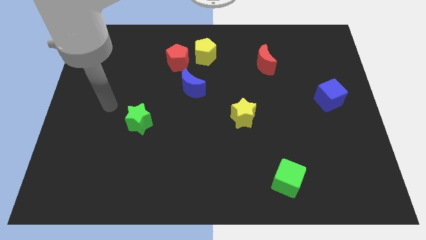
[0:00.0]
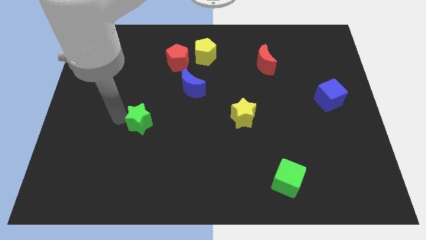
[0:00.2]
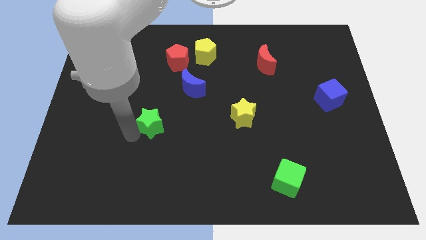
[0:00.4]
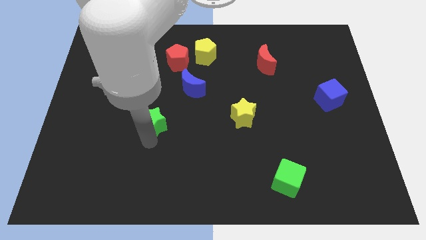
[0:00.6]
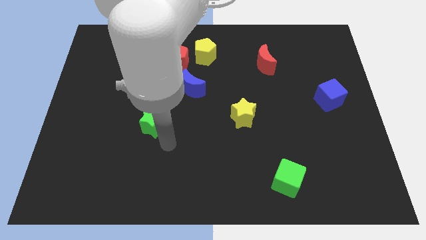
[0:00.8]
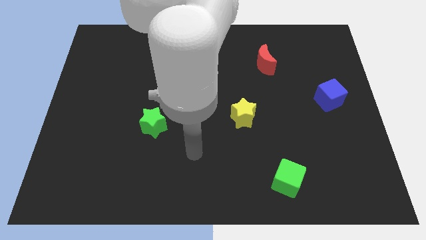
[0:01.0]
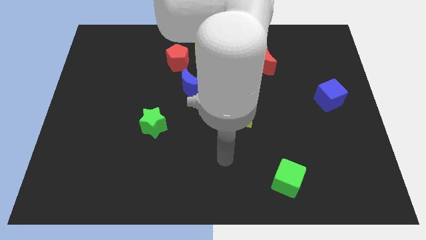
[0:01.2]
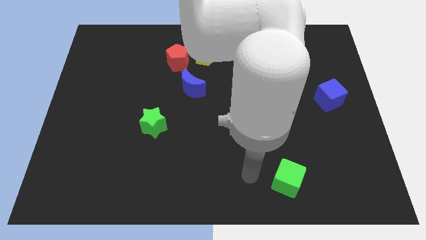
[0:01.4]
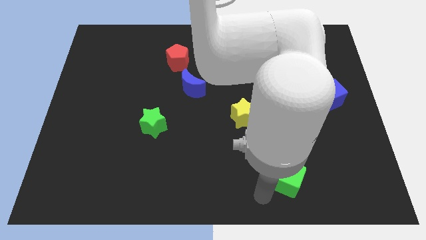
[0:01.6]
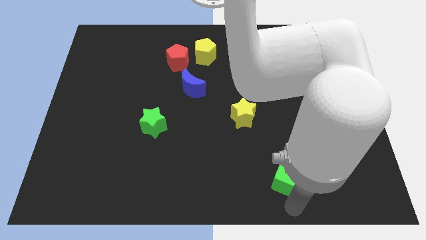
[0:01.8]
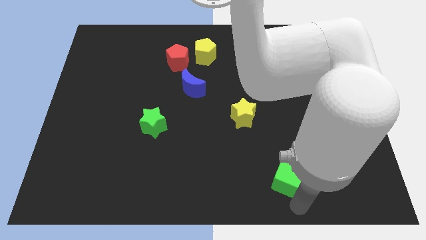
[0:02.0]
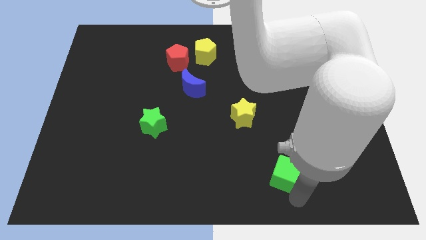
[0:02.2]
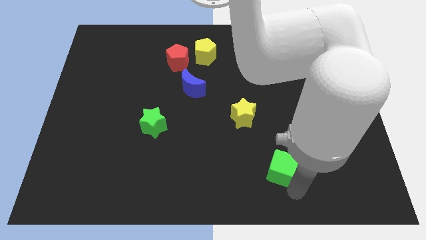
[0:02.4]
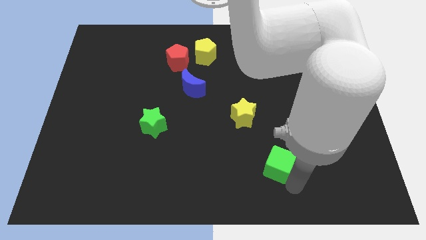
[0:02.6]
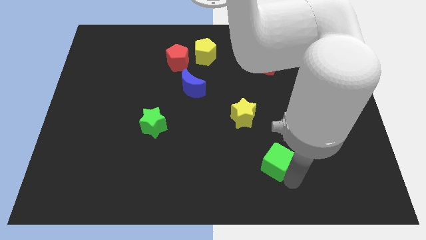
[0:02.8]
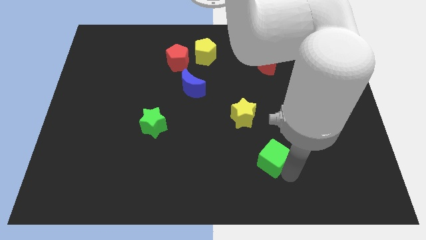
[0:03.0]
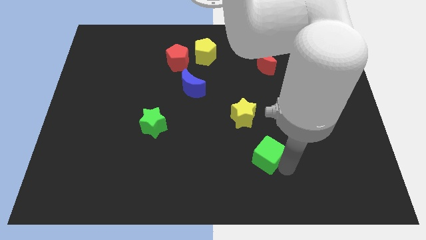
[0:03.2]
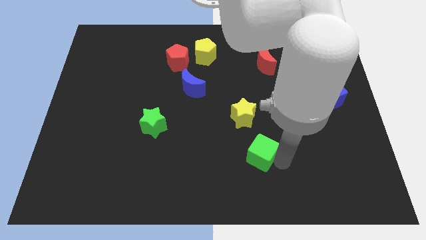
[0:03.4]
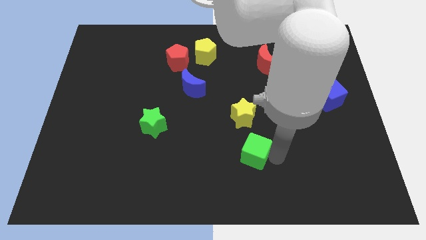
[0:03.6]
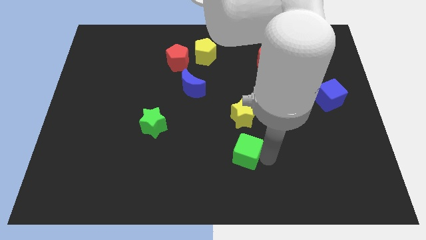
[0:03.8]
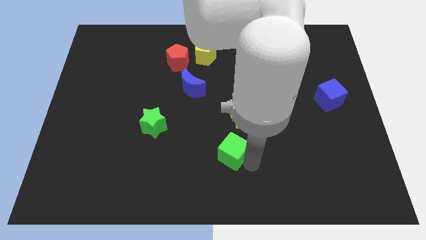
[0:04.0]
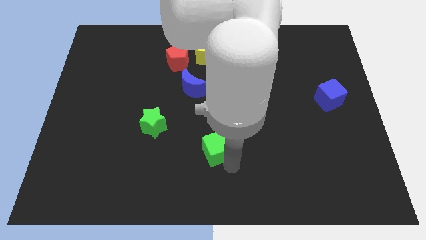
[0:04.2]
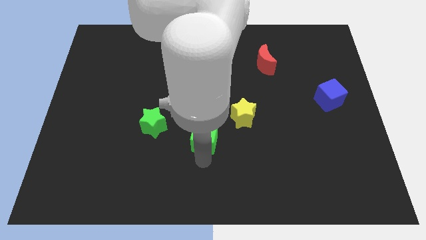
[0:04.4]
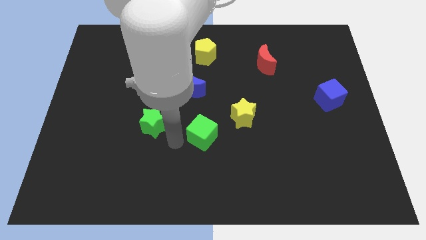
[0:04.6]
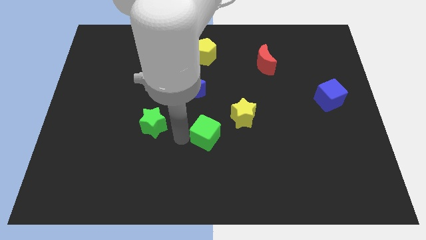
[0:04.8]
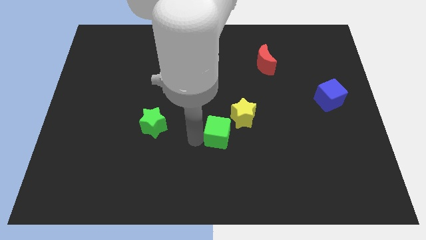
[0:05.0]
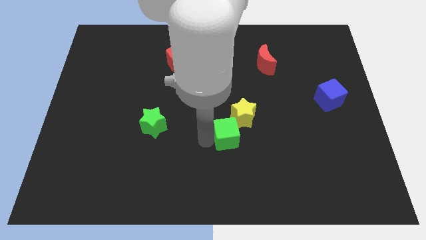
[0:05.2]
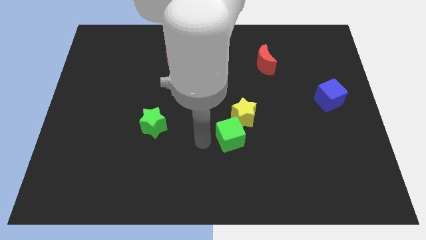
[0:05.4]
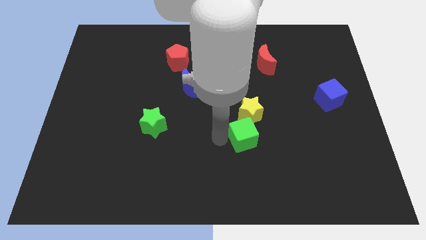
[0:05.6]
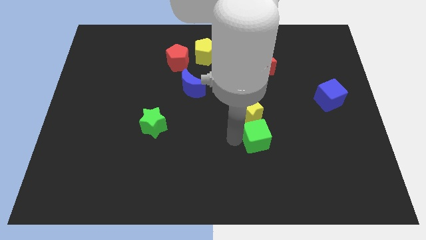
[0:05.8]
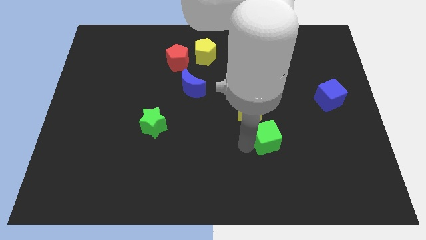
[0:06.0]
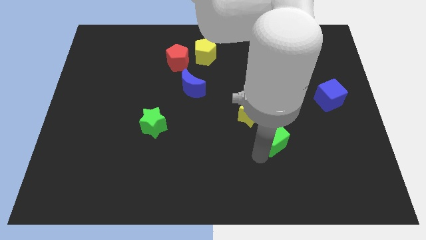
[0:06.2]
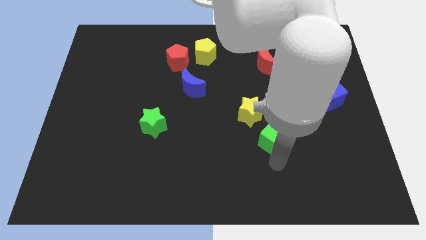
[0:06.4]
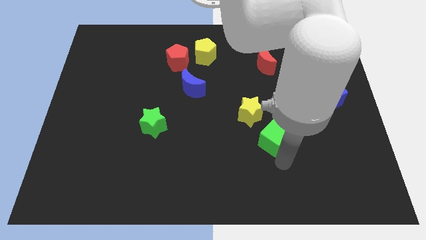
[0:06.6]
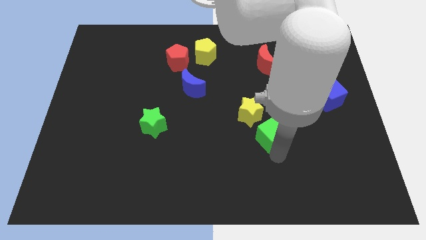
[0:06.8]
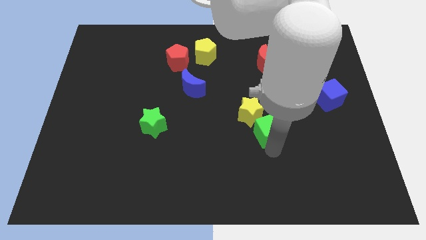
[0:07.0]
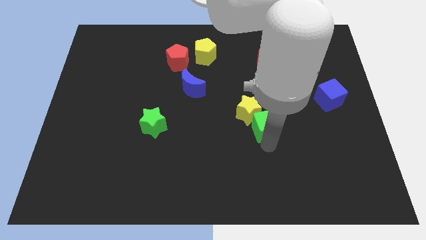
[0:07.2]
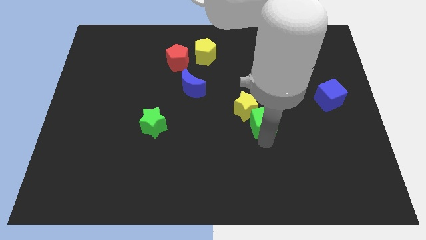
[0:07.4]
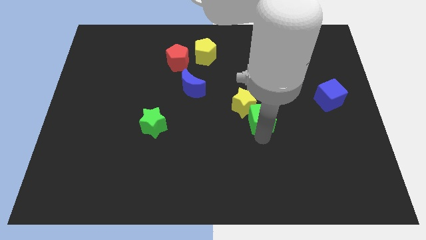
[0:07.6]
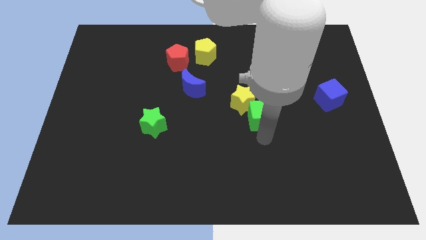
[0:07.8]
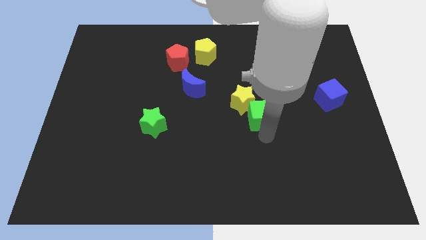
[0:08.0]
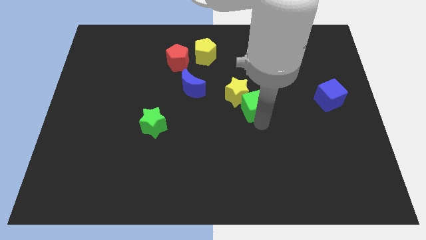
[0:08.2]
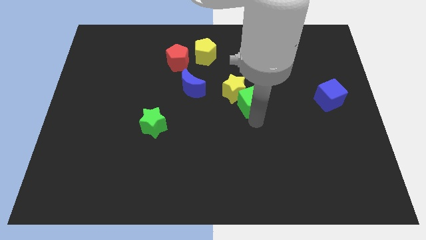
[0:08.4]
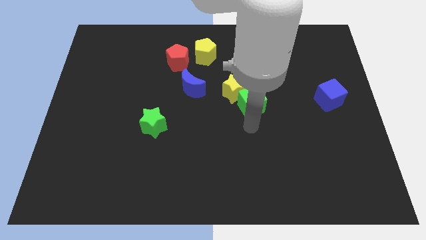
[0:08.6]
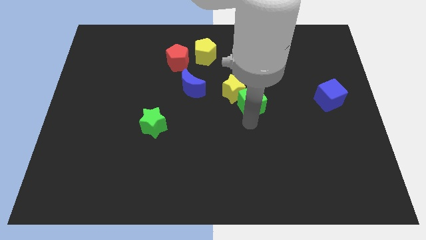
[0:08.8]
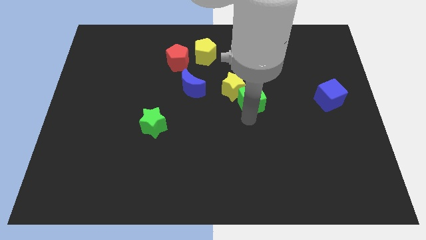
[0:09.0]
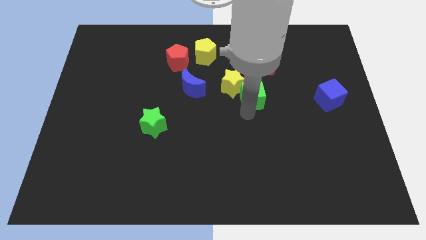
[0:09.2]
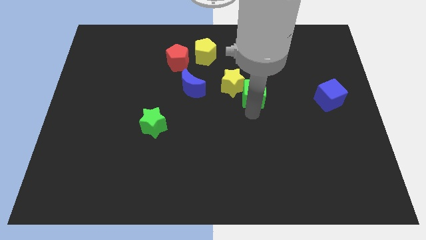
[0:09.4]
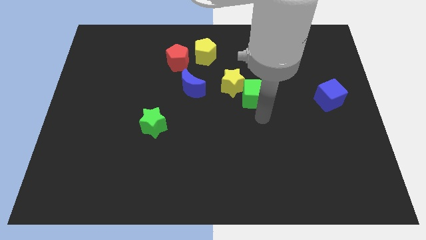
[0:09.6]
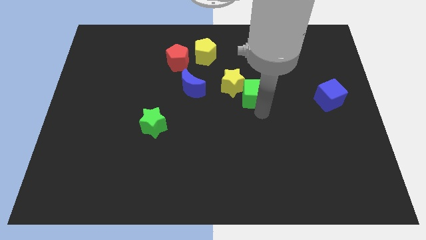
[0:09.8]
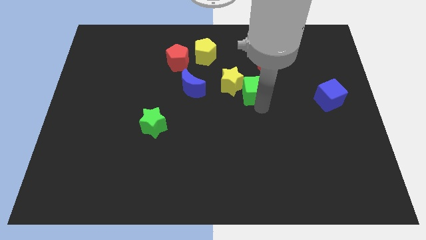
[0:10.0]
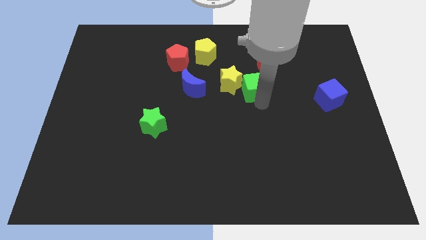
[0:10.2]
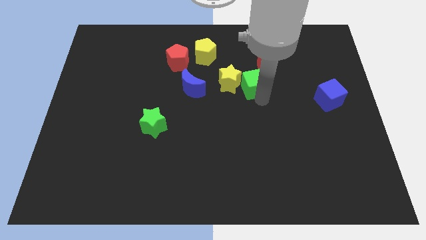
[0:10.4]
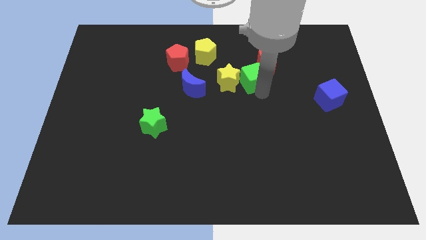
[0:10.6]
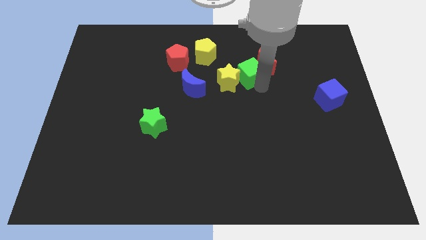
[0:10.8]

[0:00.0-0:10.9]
move the green cube left of the red moon

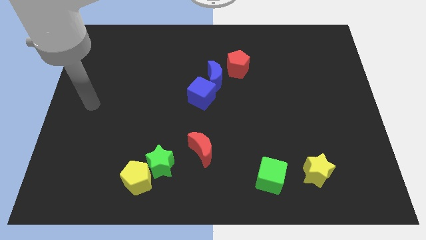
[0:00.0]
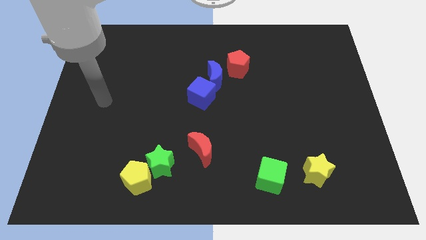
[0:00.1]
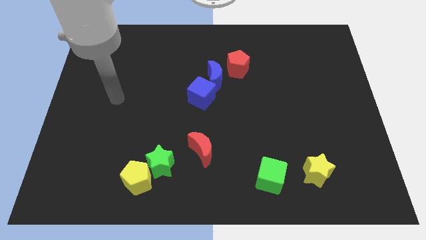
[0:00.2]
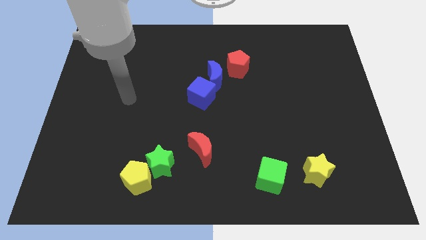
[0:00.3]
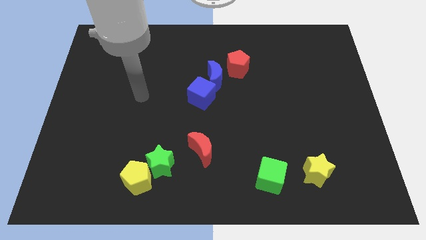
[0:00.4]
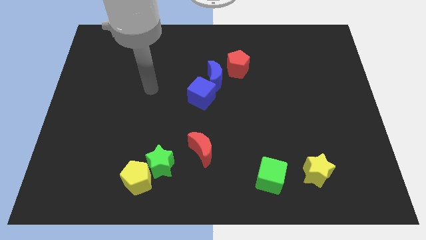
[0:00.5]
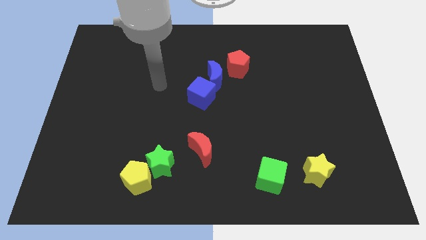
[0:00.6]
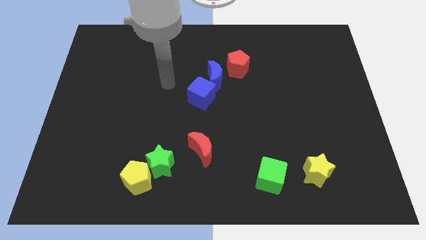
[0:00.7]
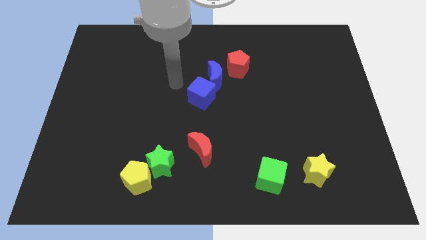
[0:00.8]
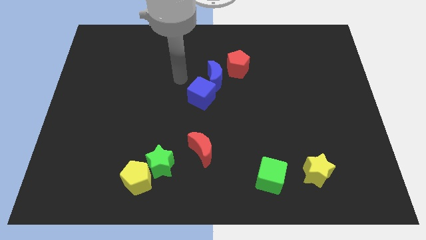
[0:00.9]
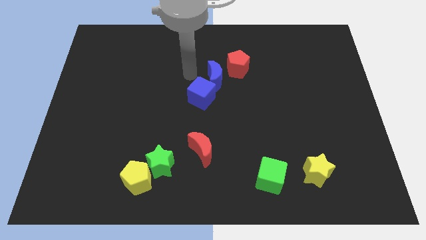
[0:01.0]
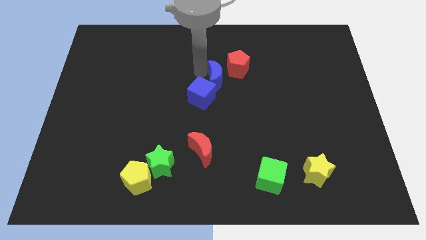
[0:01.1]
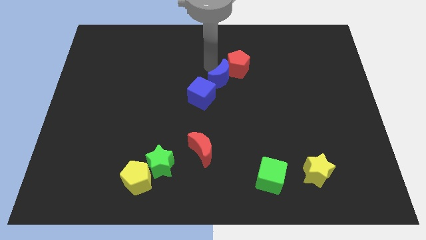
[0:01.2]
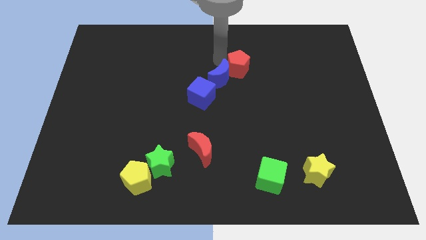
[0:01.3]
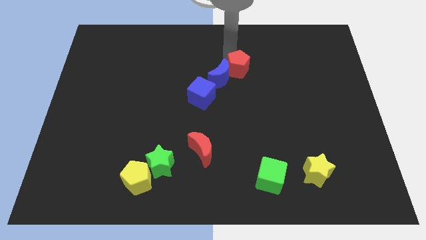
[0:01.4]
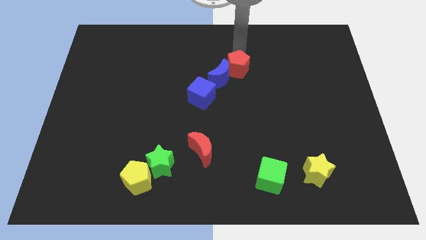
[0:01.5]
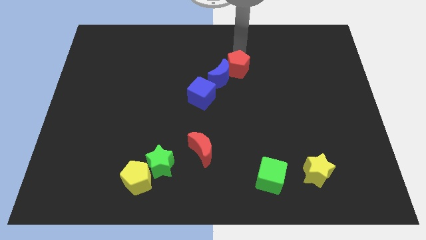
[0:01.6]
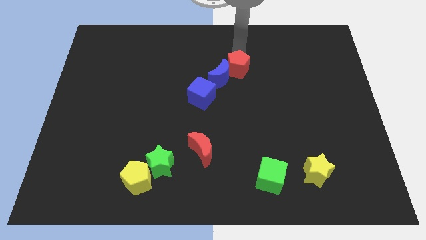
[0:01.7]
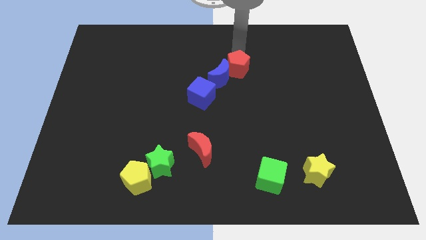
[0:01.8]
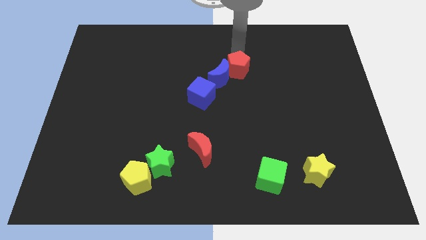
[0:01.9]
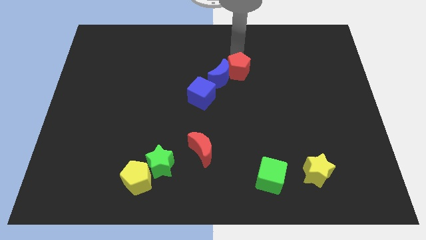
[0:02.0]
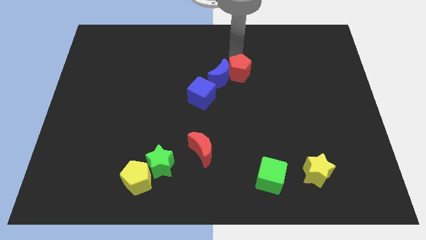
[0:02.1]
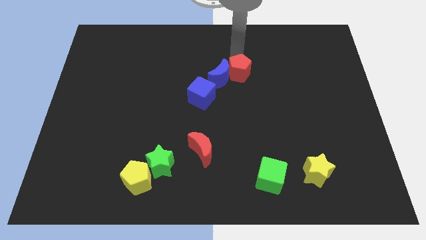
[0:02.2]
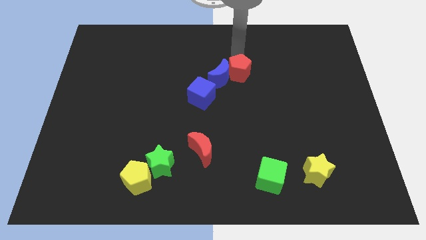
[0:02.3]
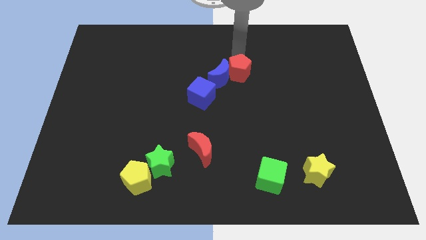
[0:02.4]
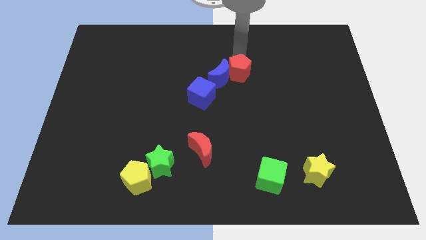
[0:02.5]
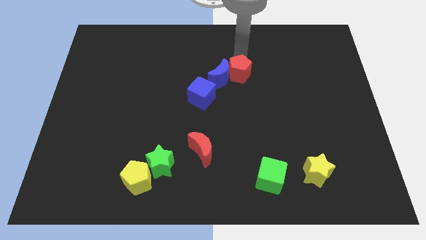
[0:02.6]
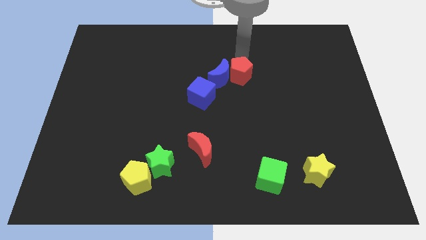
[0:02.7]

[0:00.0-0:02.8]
slide the red pentagon diagonally down and to the right of the blue moon
